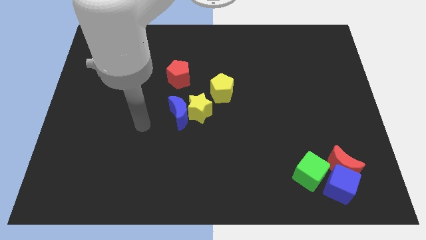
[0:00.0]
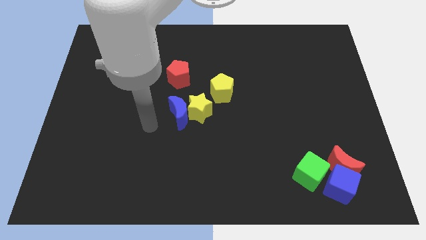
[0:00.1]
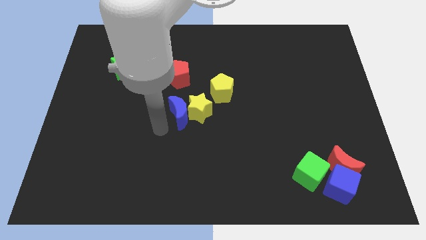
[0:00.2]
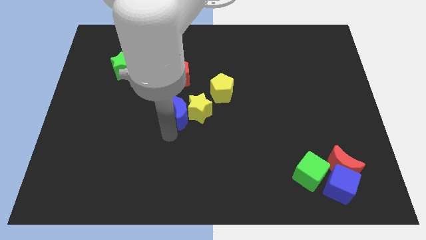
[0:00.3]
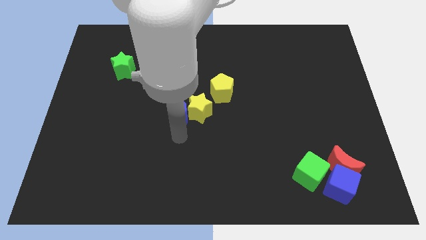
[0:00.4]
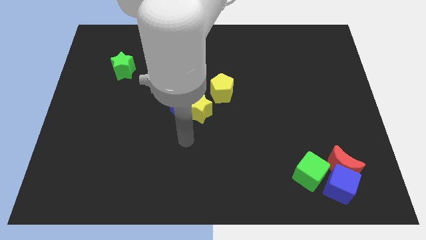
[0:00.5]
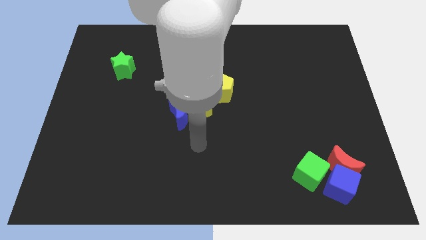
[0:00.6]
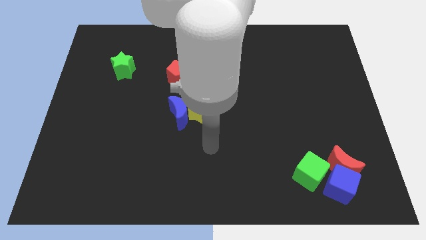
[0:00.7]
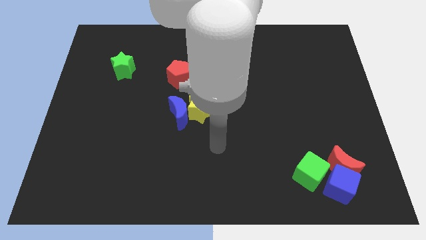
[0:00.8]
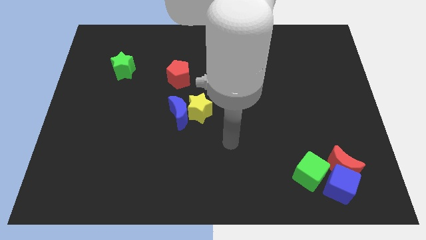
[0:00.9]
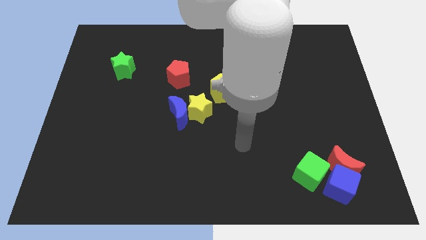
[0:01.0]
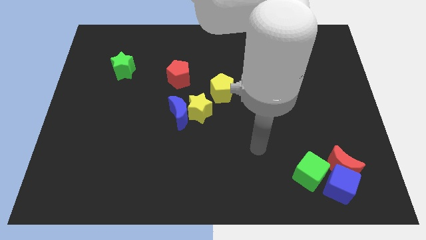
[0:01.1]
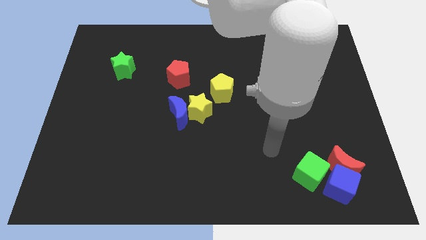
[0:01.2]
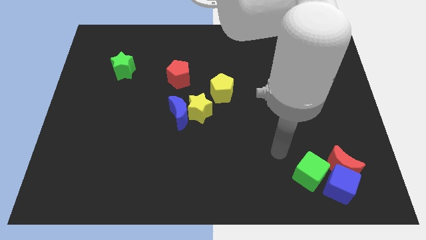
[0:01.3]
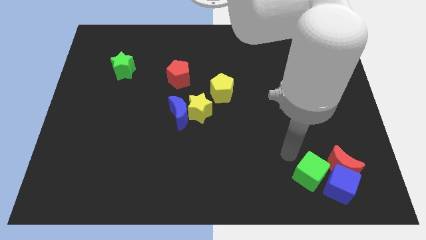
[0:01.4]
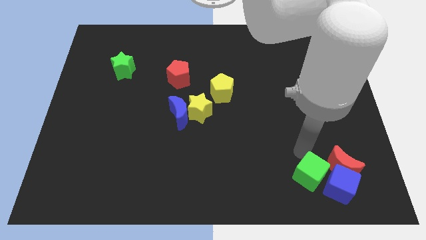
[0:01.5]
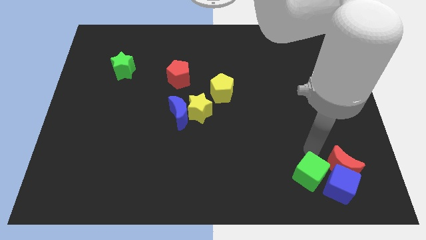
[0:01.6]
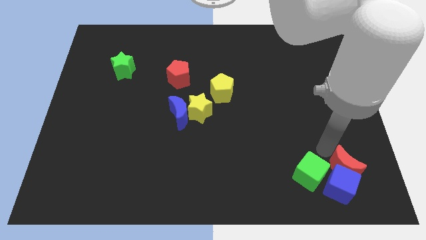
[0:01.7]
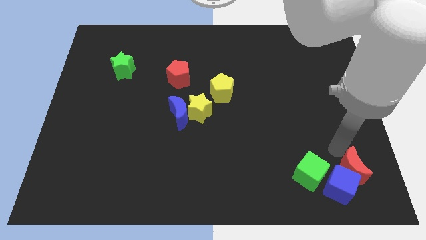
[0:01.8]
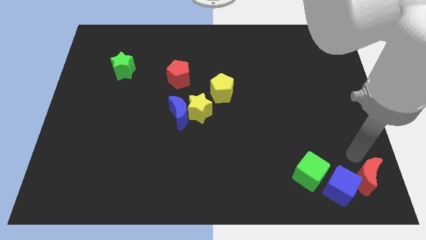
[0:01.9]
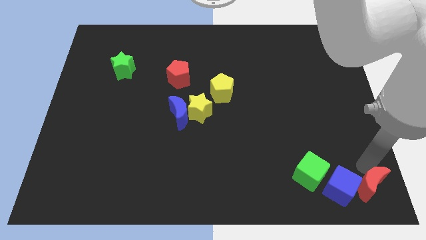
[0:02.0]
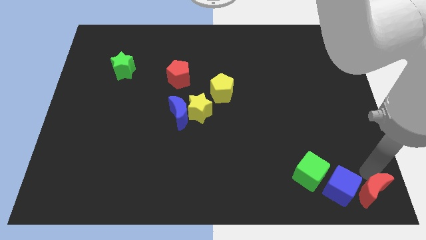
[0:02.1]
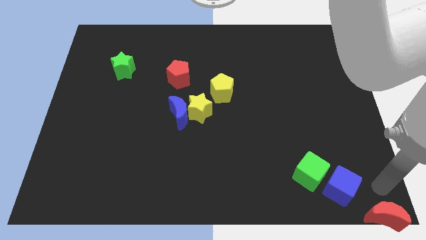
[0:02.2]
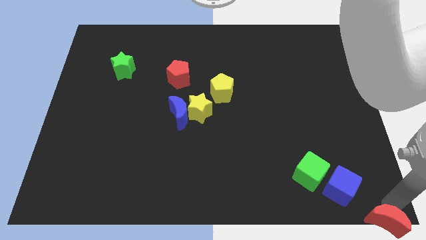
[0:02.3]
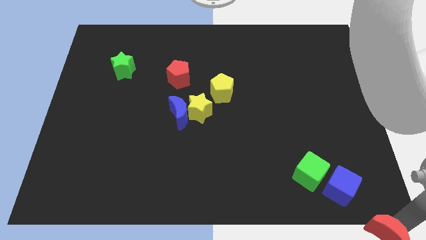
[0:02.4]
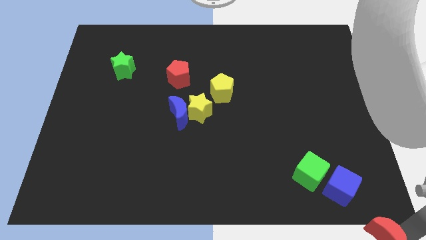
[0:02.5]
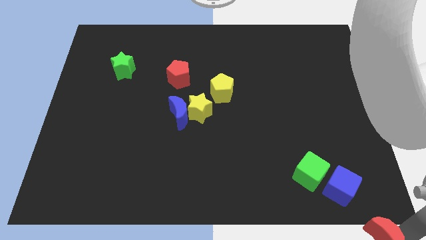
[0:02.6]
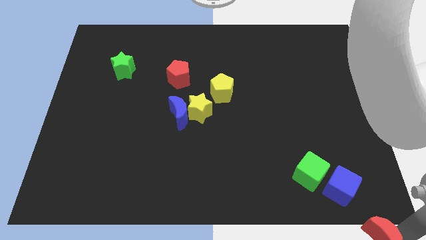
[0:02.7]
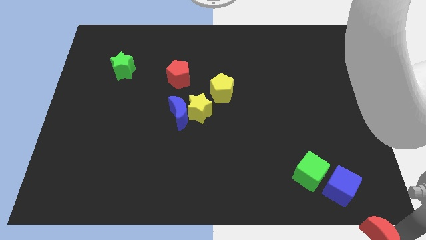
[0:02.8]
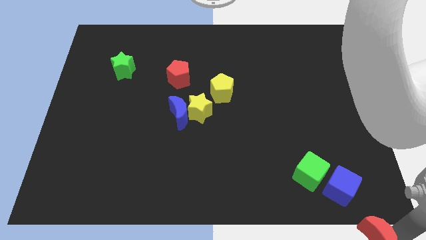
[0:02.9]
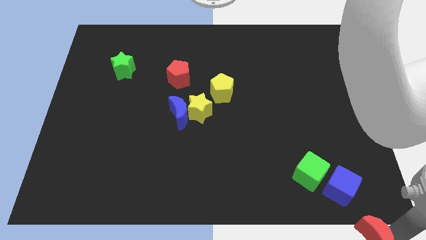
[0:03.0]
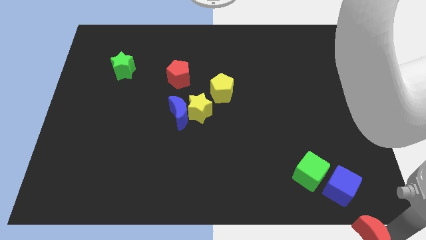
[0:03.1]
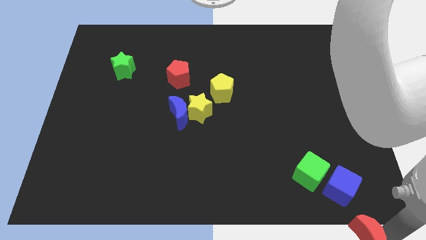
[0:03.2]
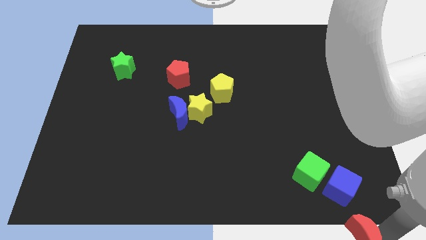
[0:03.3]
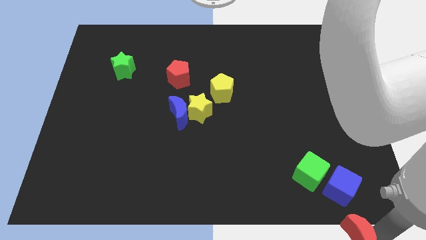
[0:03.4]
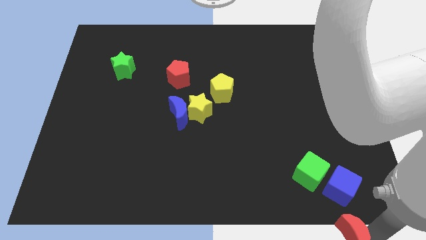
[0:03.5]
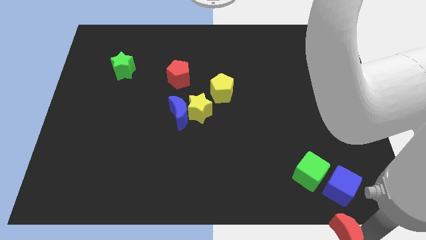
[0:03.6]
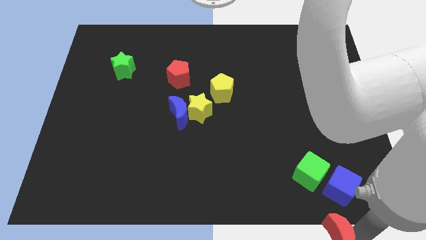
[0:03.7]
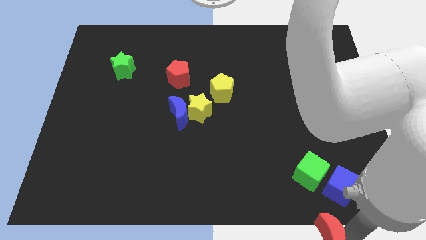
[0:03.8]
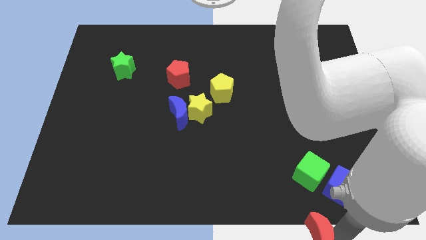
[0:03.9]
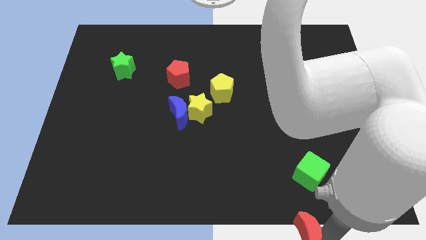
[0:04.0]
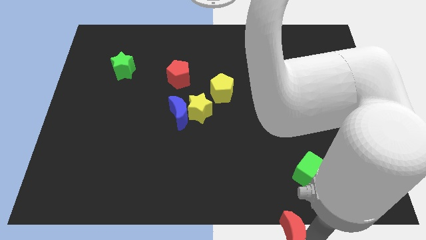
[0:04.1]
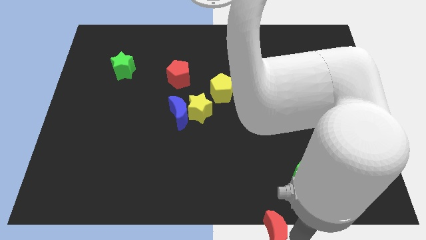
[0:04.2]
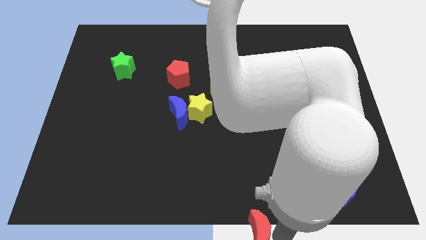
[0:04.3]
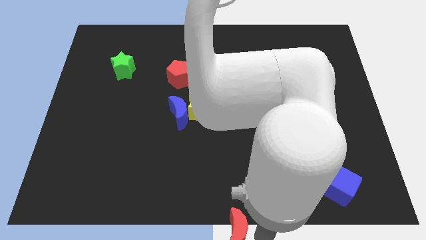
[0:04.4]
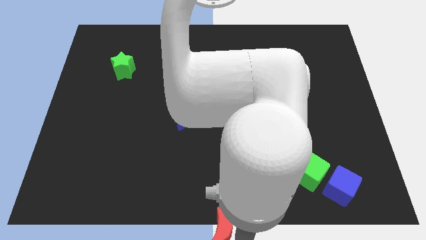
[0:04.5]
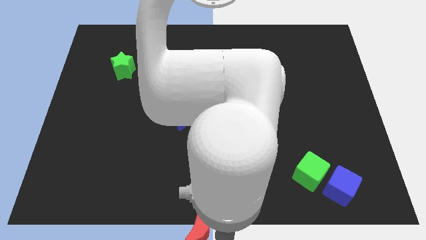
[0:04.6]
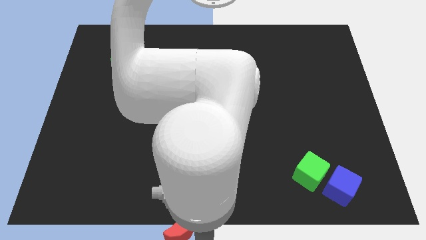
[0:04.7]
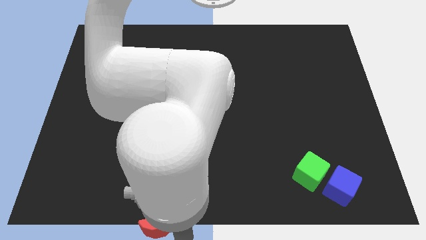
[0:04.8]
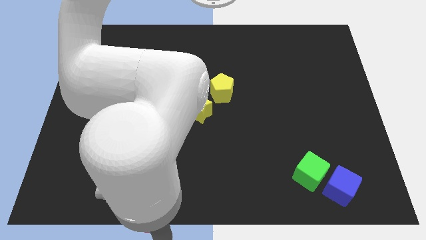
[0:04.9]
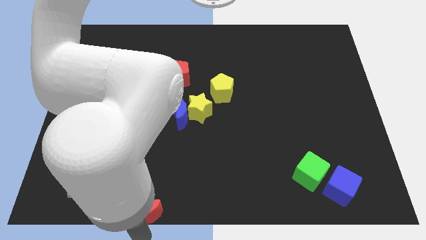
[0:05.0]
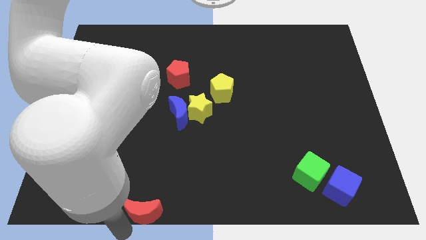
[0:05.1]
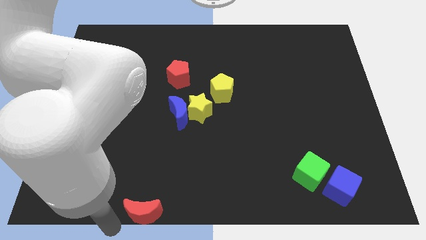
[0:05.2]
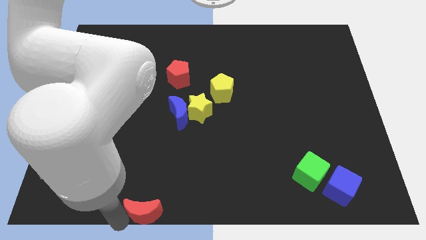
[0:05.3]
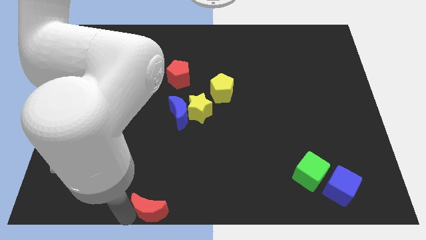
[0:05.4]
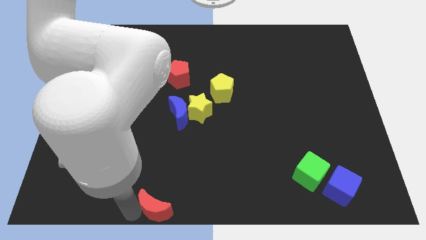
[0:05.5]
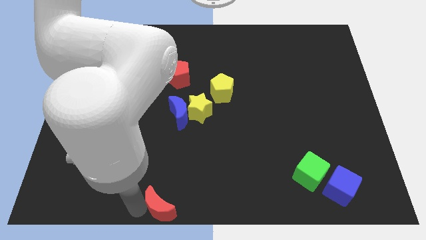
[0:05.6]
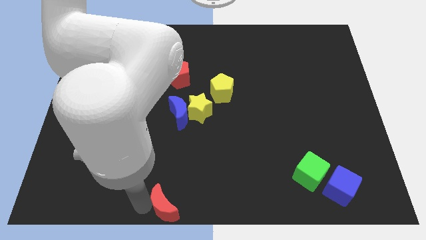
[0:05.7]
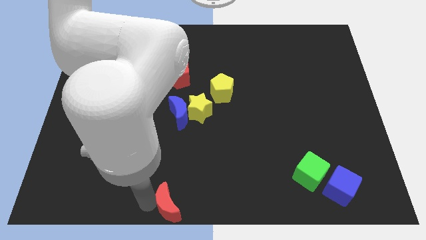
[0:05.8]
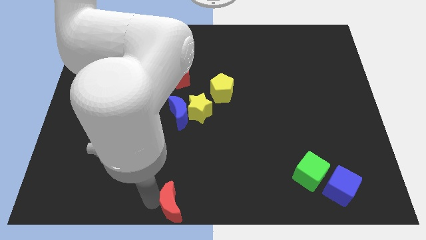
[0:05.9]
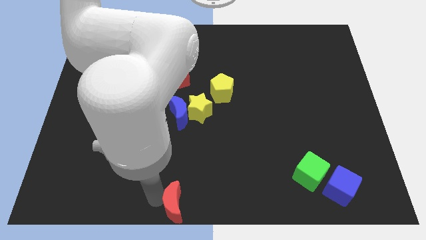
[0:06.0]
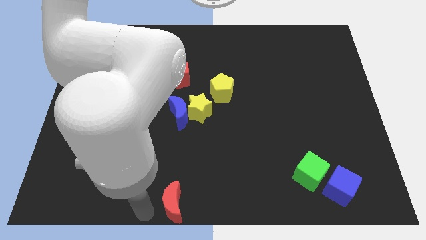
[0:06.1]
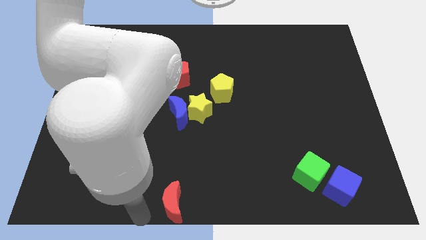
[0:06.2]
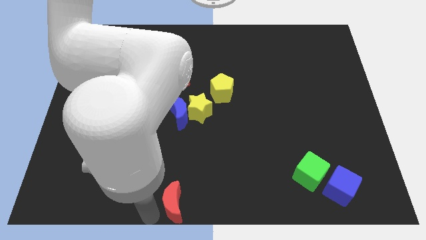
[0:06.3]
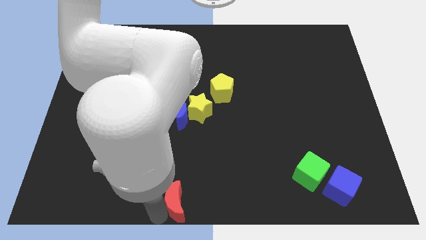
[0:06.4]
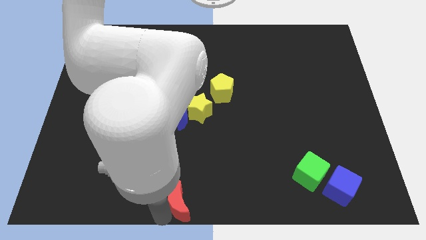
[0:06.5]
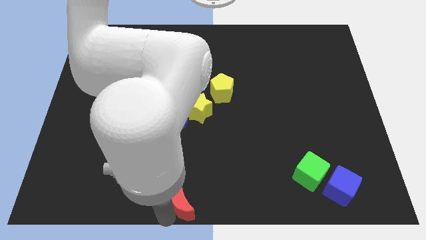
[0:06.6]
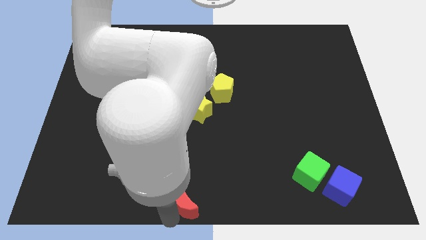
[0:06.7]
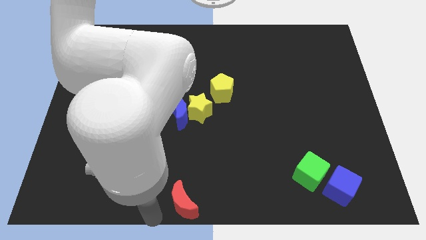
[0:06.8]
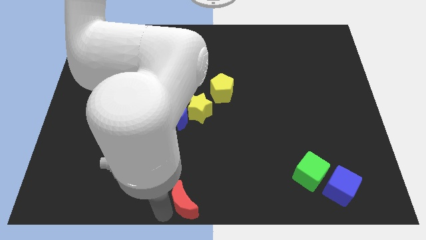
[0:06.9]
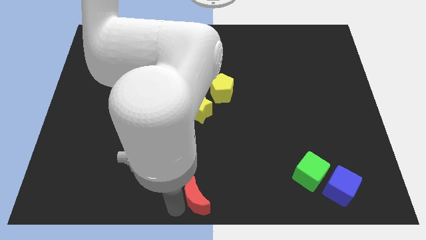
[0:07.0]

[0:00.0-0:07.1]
slightly slide the red moon to the left

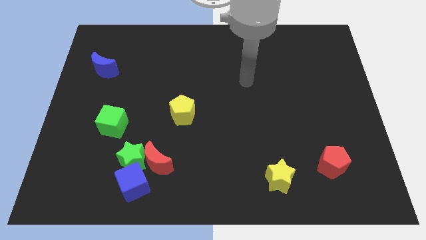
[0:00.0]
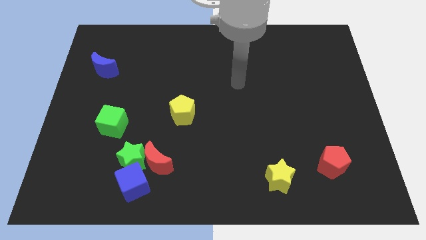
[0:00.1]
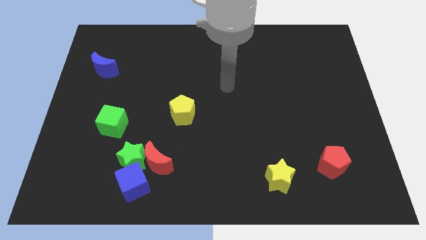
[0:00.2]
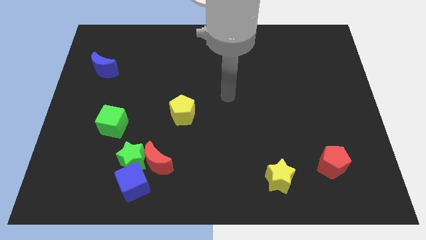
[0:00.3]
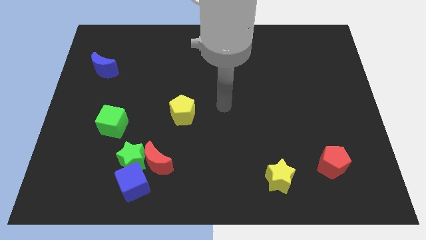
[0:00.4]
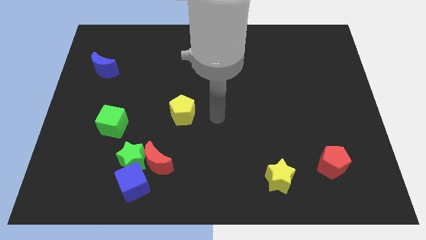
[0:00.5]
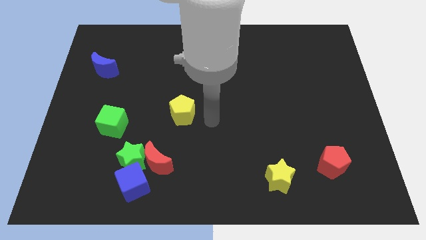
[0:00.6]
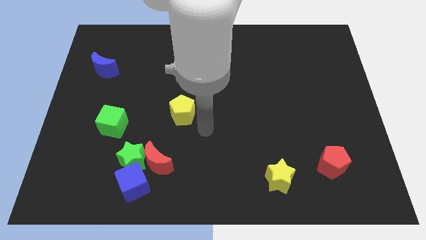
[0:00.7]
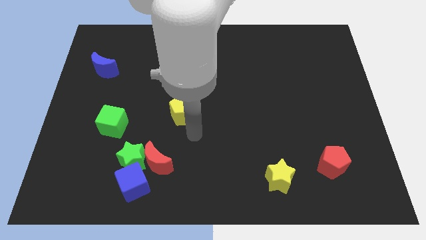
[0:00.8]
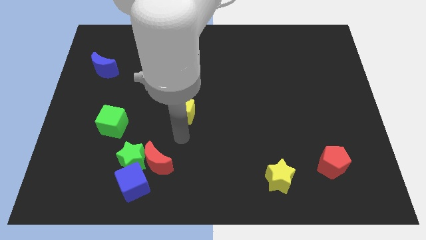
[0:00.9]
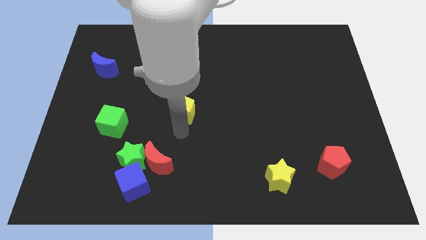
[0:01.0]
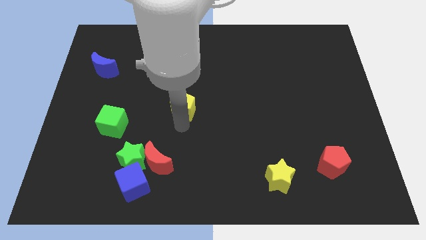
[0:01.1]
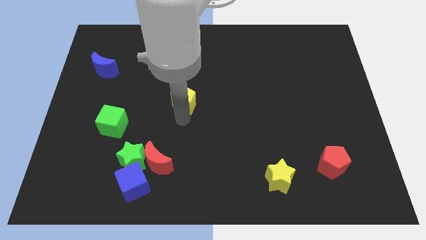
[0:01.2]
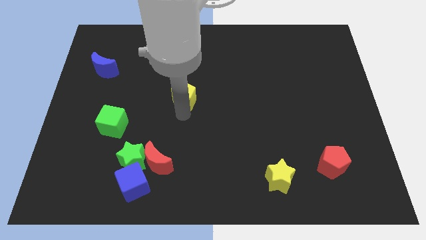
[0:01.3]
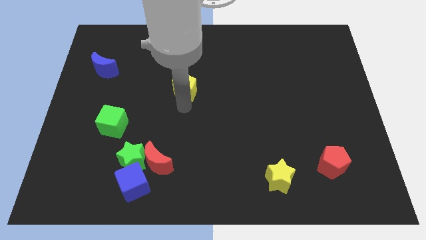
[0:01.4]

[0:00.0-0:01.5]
slightly push the yellow pentagon upwards
